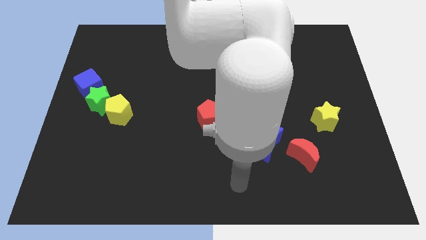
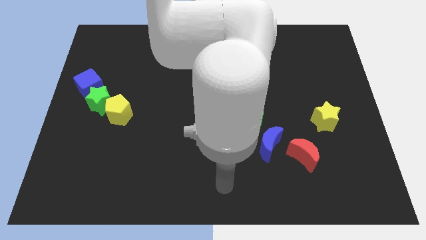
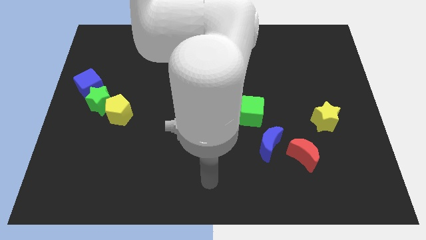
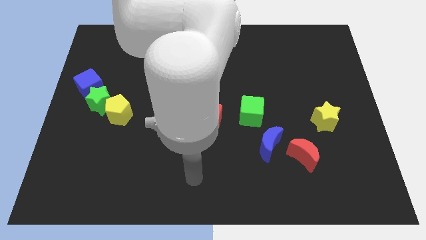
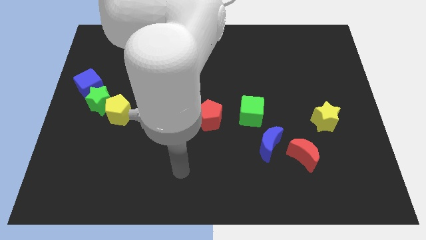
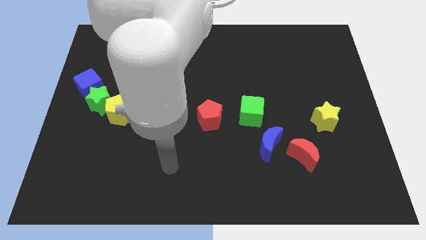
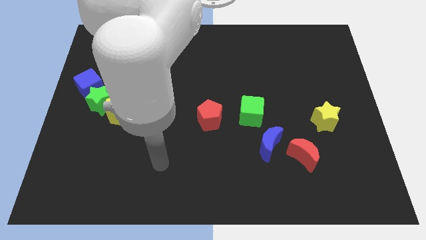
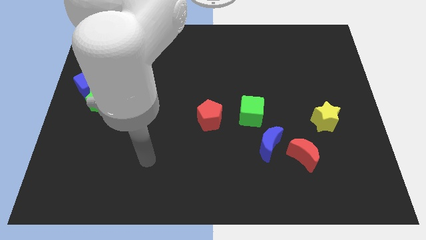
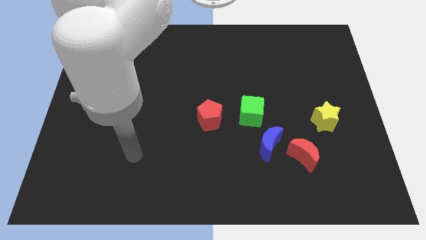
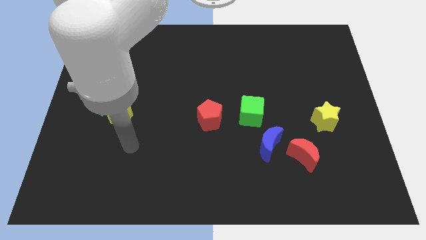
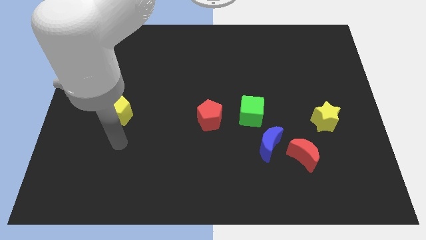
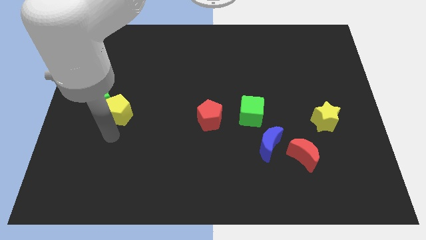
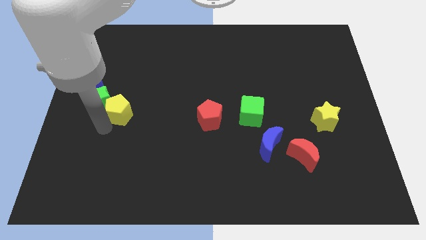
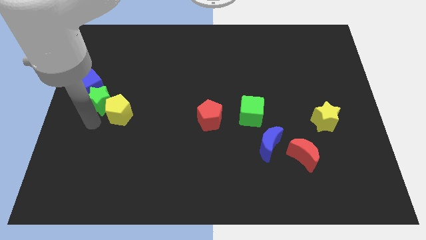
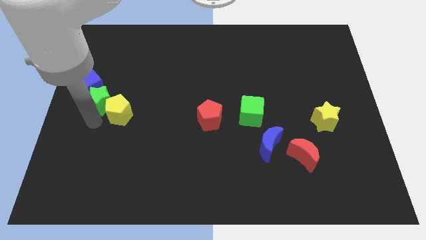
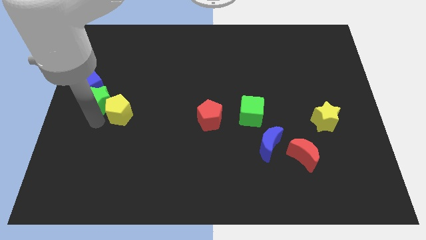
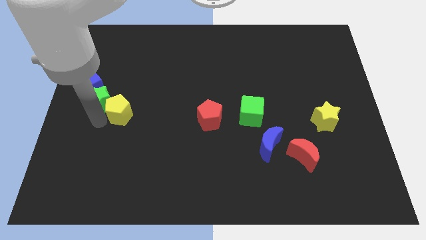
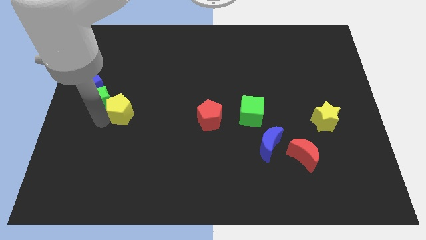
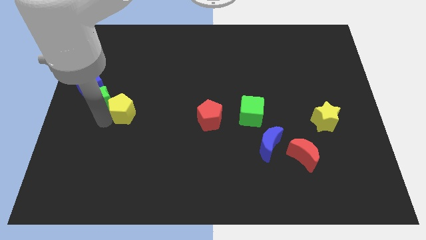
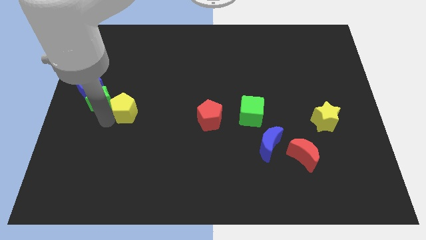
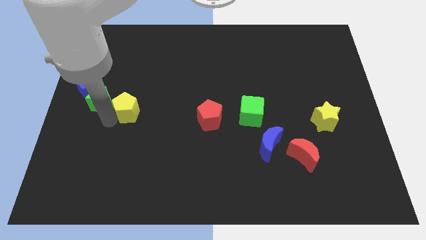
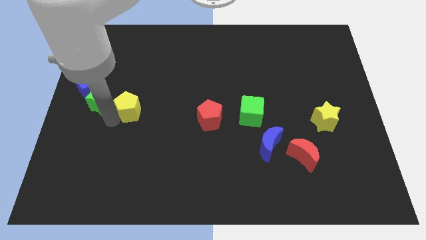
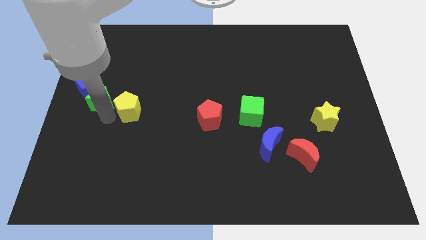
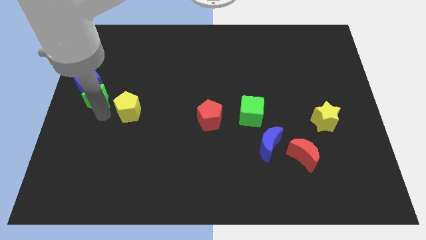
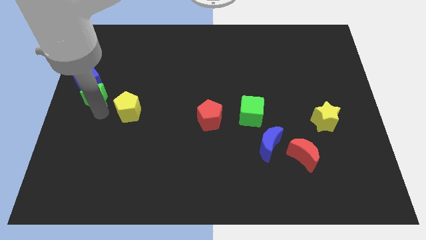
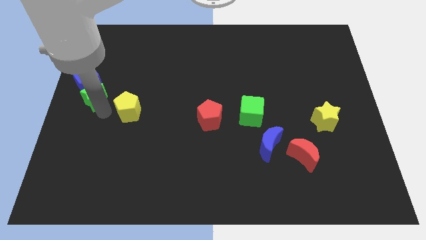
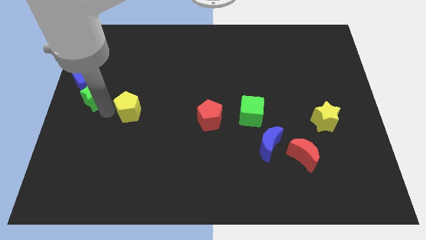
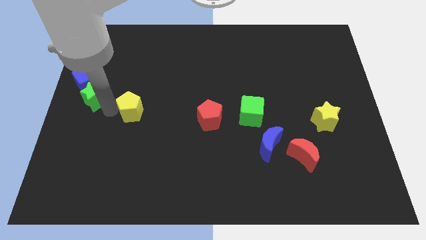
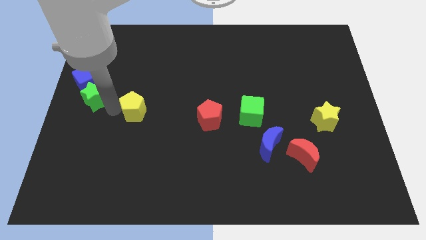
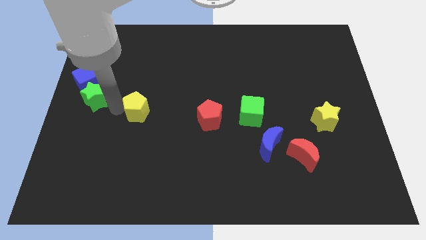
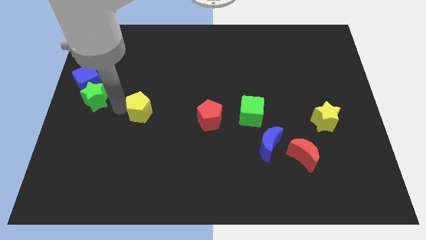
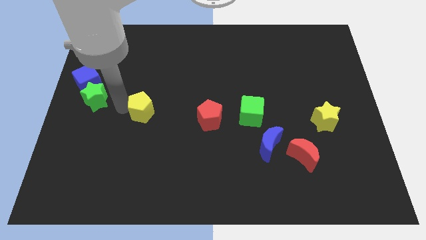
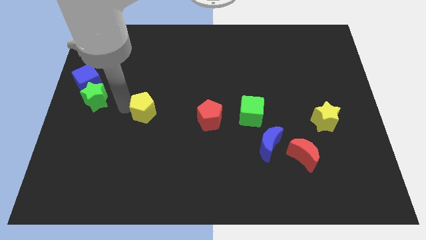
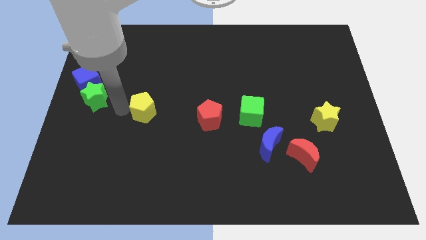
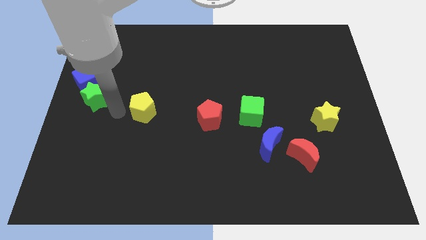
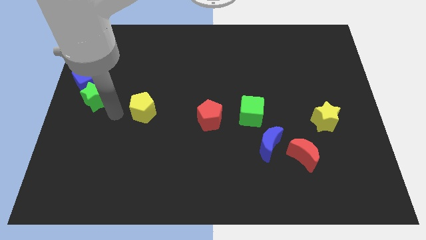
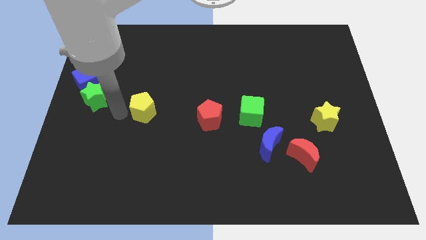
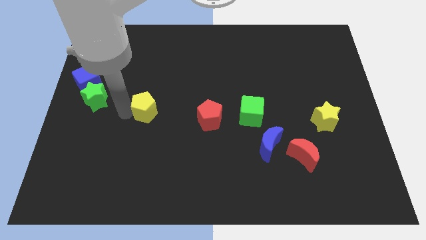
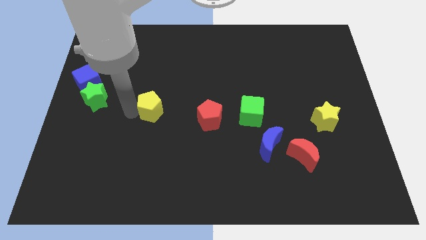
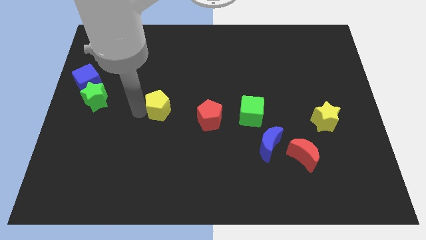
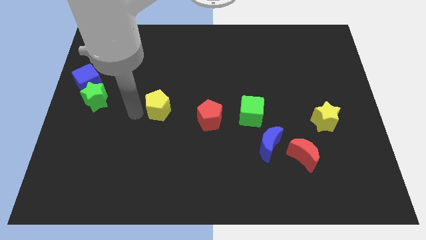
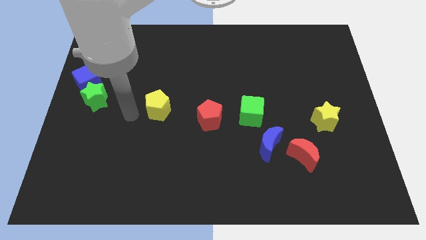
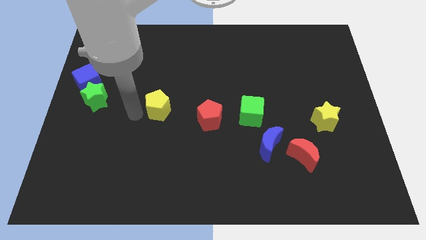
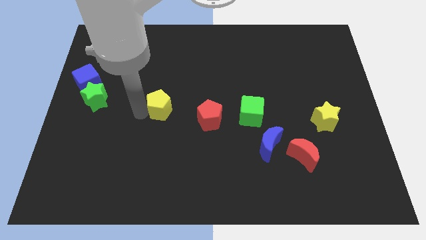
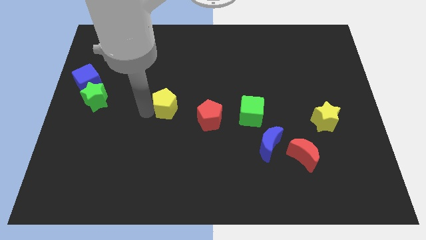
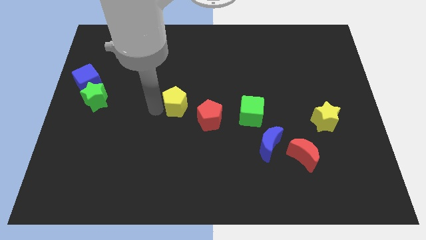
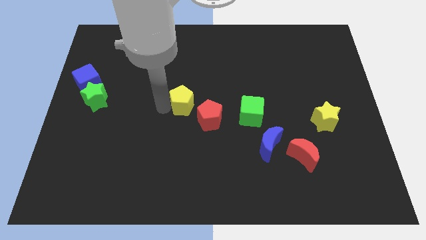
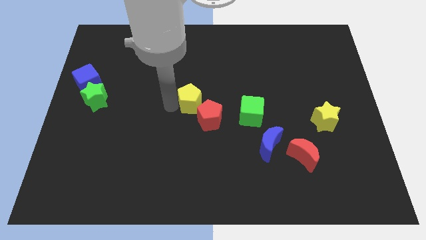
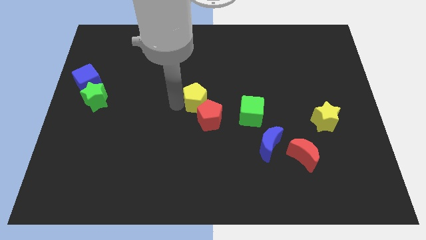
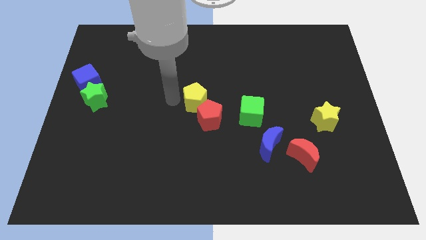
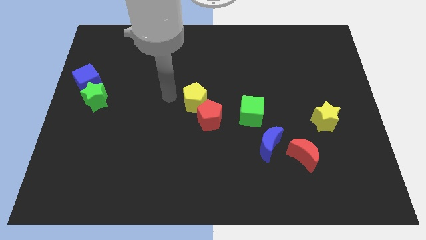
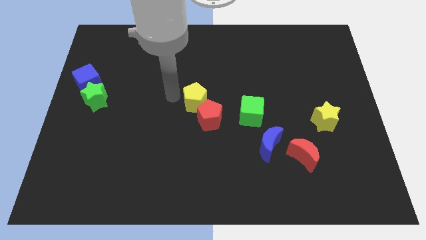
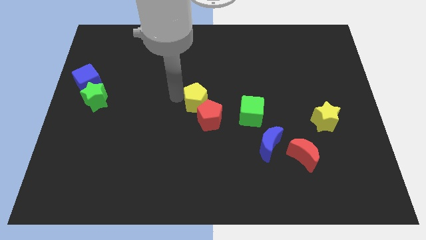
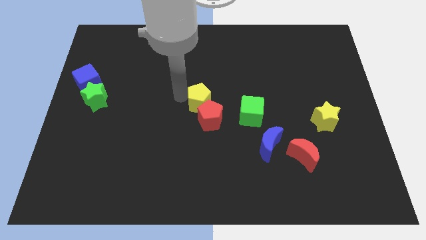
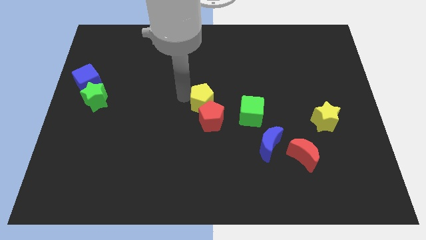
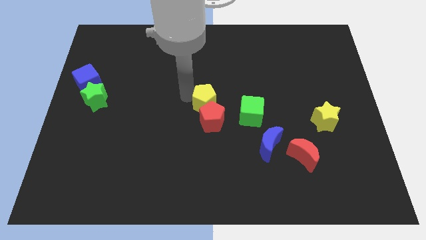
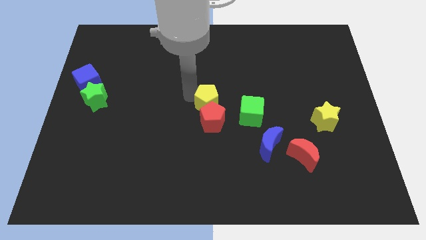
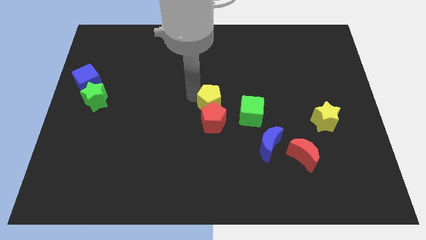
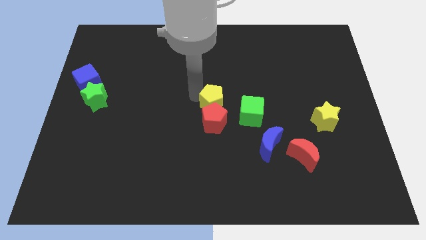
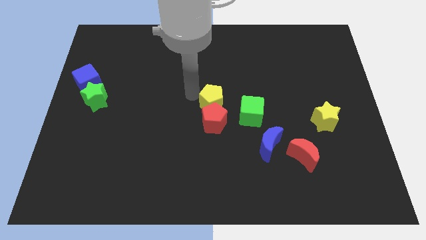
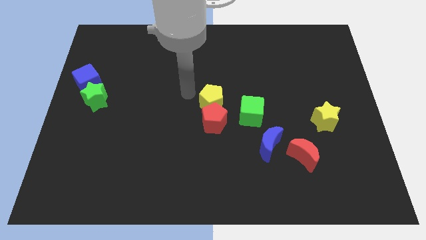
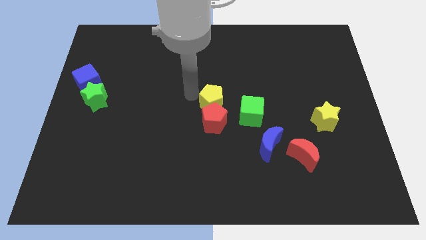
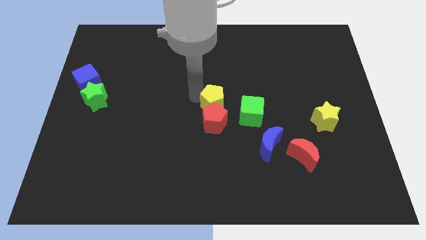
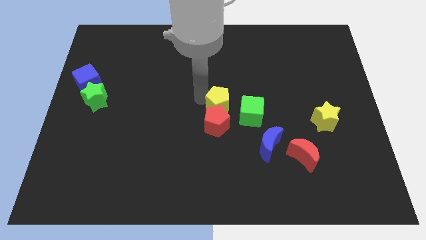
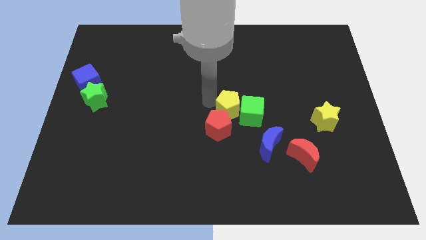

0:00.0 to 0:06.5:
put the yellow pentagon close to the green cube

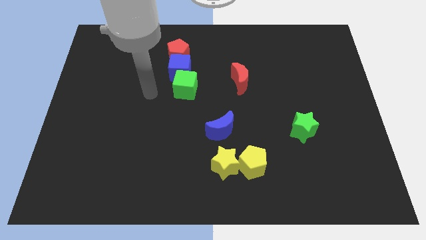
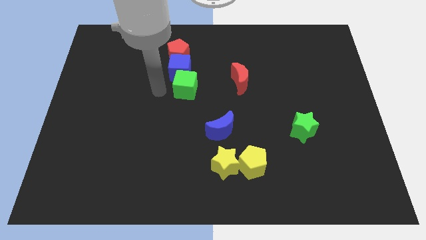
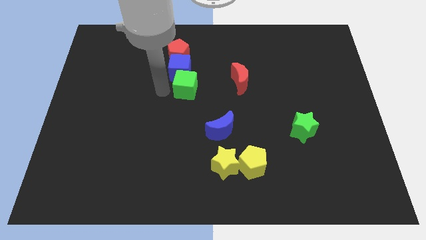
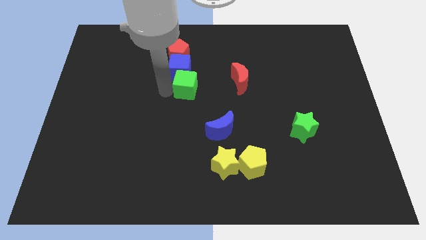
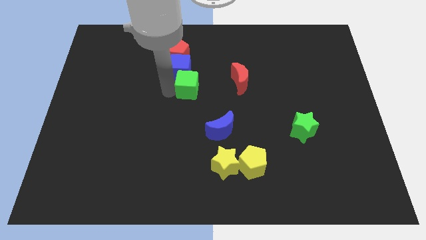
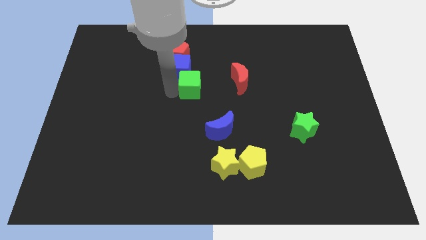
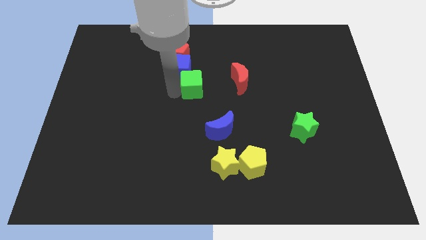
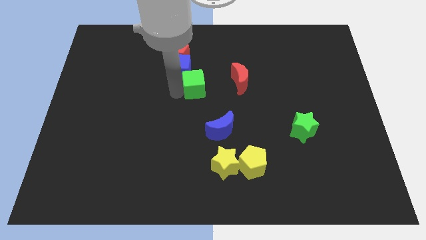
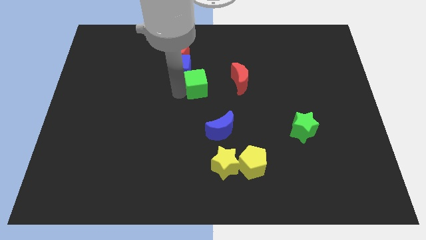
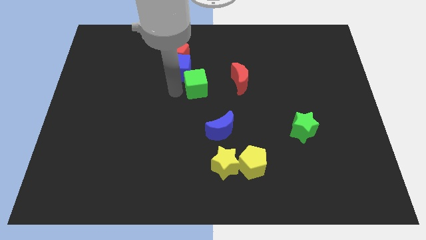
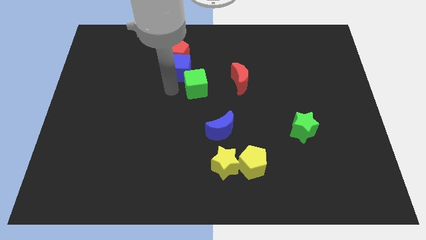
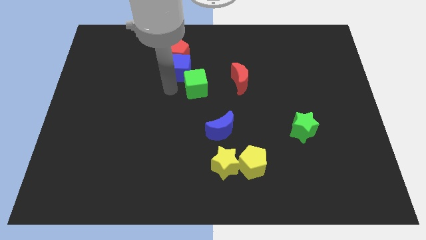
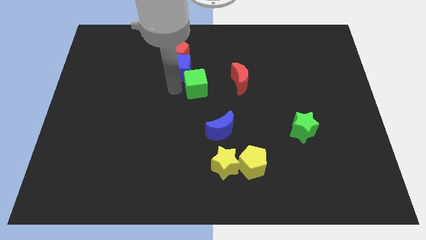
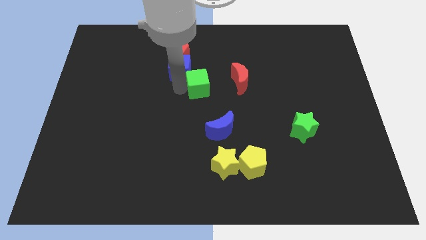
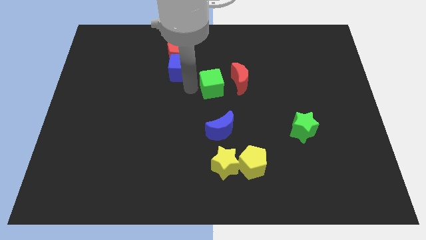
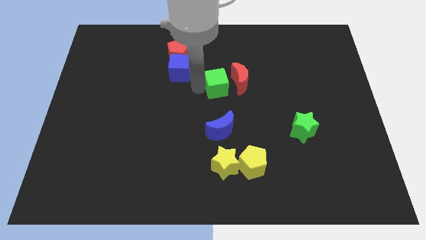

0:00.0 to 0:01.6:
put the green cube towards the red moon
